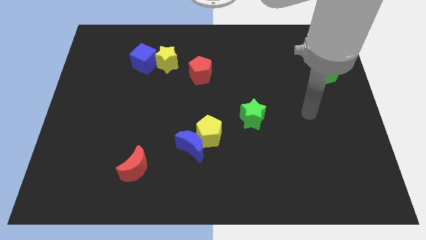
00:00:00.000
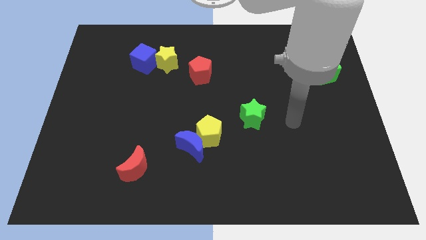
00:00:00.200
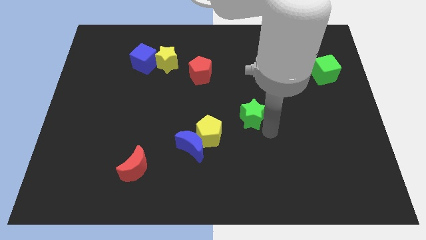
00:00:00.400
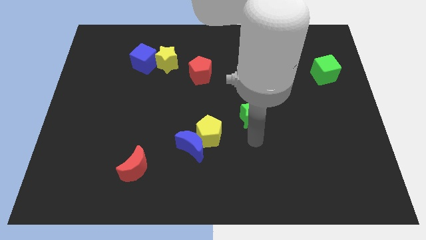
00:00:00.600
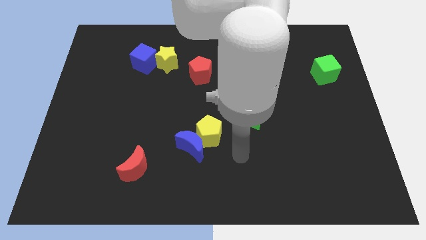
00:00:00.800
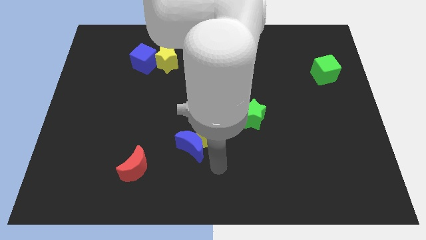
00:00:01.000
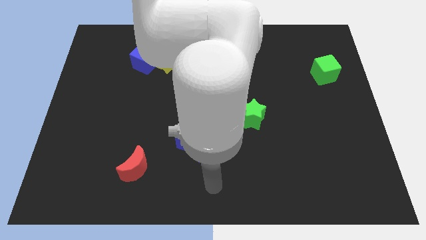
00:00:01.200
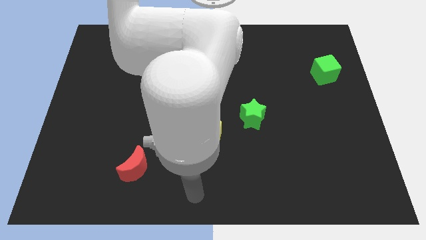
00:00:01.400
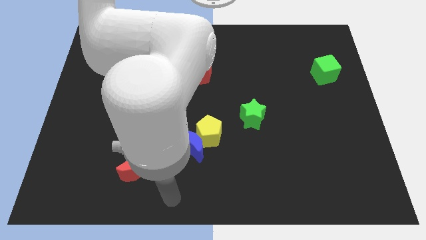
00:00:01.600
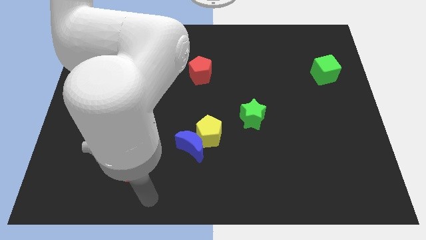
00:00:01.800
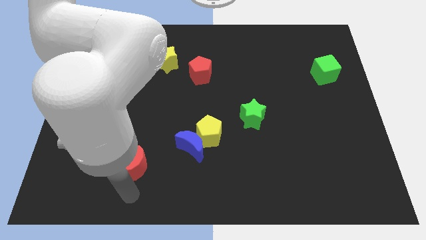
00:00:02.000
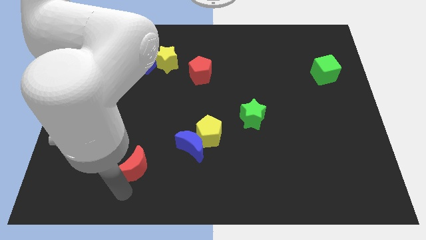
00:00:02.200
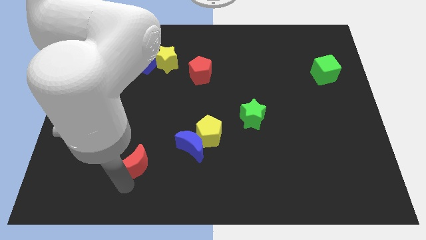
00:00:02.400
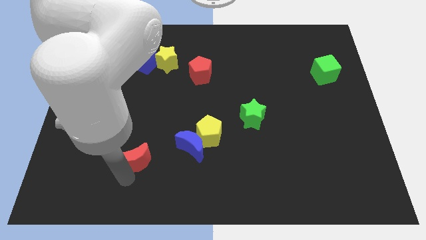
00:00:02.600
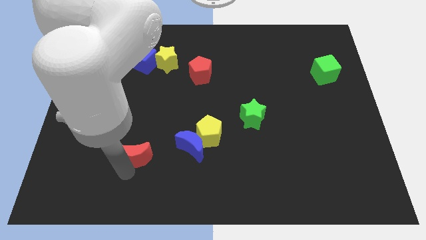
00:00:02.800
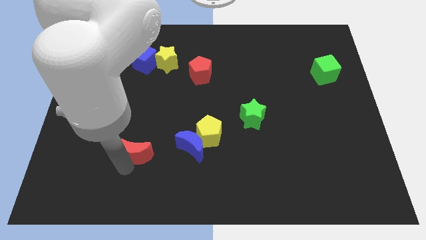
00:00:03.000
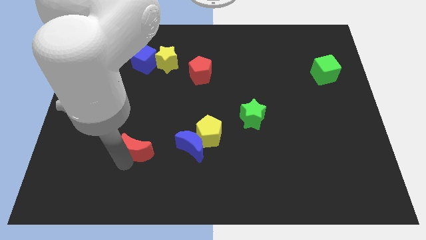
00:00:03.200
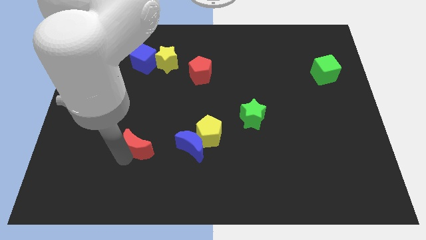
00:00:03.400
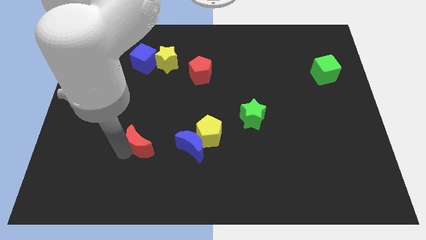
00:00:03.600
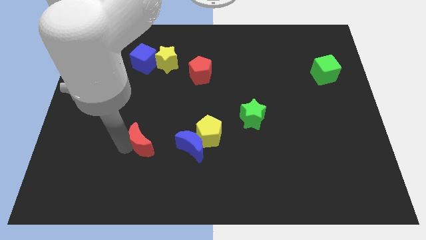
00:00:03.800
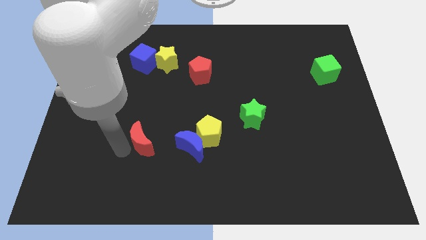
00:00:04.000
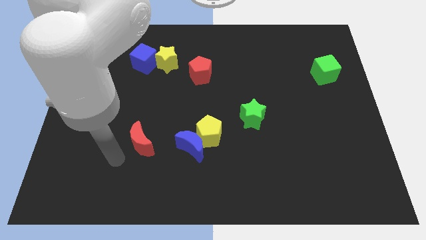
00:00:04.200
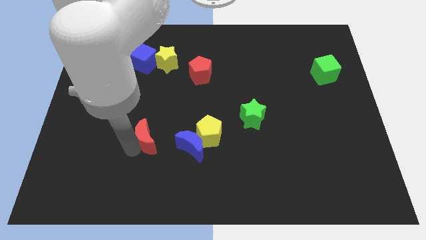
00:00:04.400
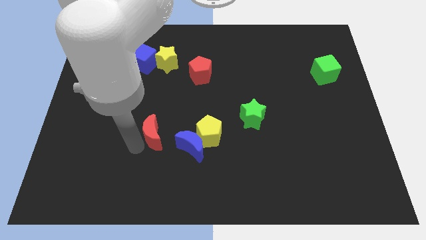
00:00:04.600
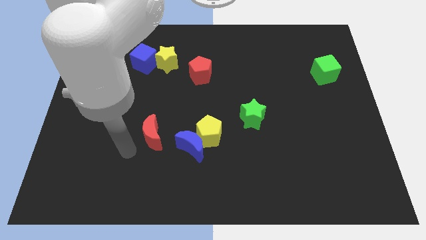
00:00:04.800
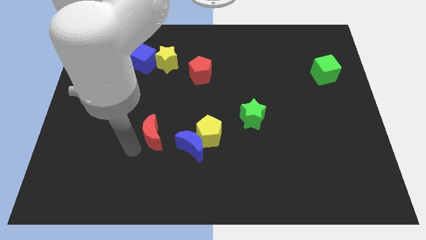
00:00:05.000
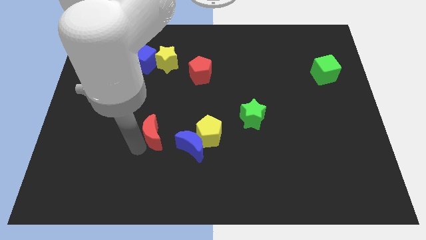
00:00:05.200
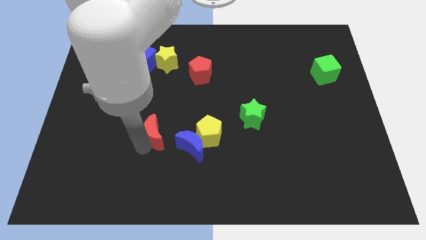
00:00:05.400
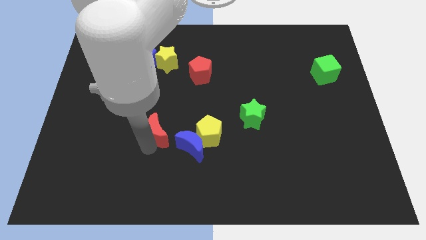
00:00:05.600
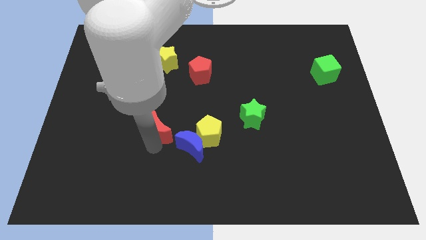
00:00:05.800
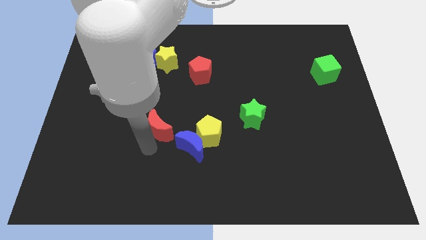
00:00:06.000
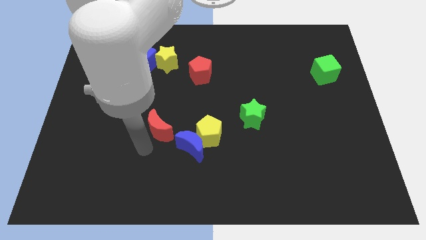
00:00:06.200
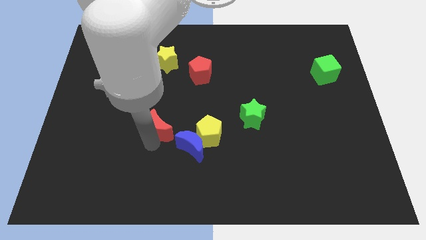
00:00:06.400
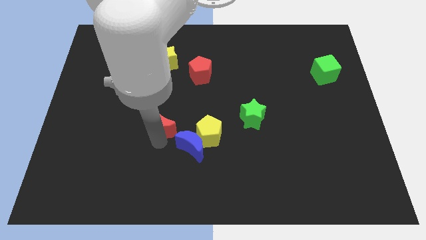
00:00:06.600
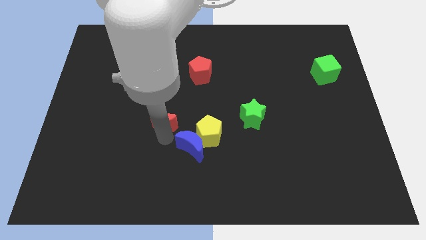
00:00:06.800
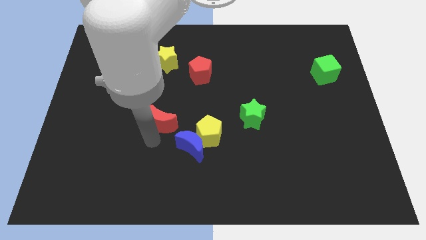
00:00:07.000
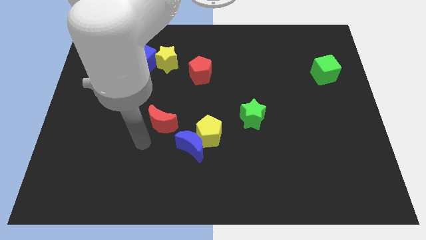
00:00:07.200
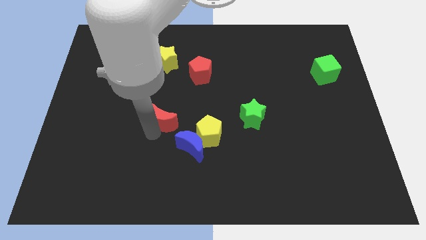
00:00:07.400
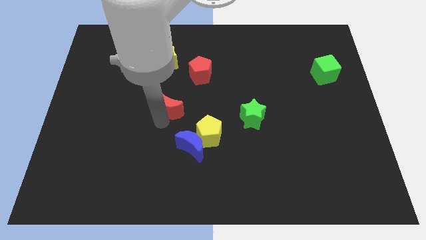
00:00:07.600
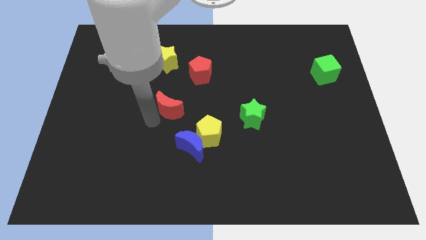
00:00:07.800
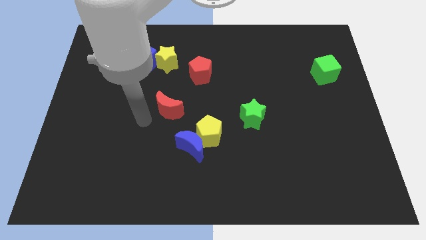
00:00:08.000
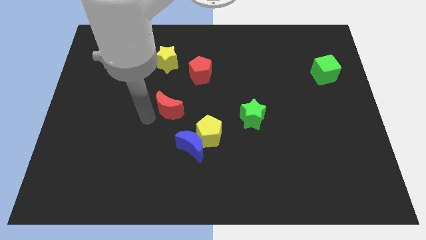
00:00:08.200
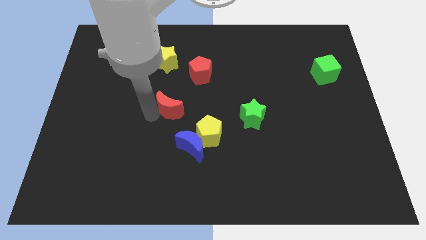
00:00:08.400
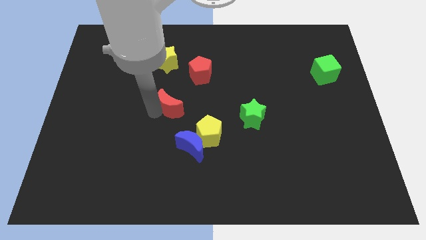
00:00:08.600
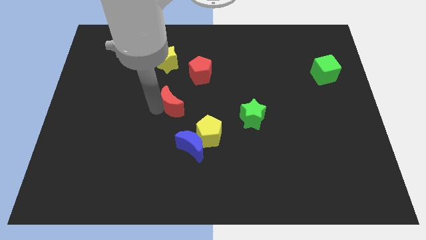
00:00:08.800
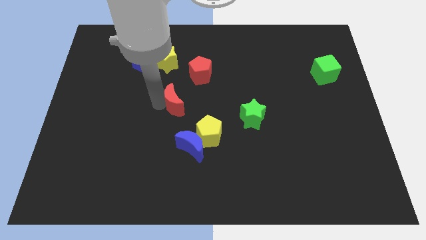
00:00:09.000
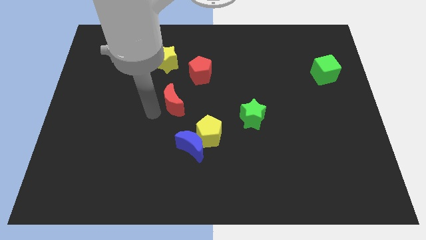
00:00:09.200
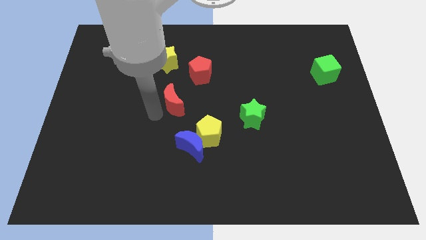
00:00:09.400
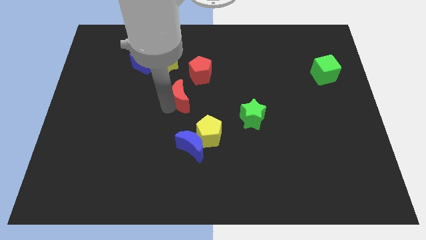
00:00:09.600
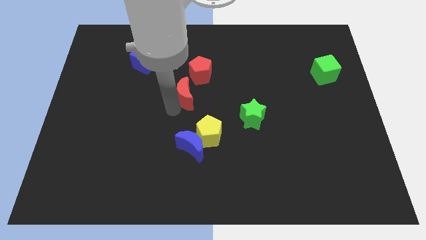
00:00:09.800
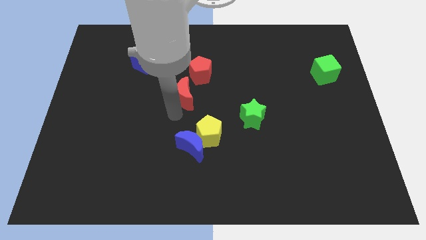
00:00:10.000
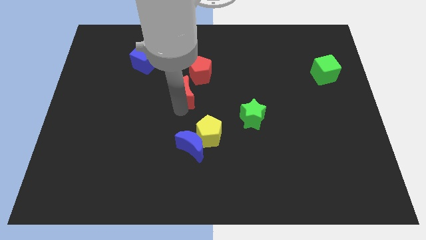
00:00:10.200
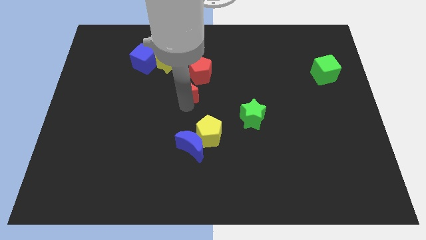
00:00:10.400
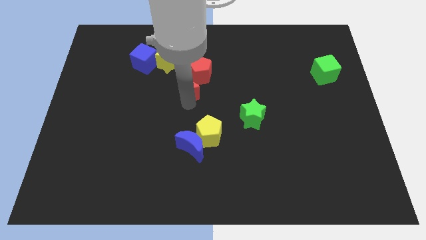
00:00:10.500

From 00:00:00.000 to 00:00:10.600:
put the red moon close to the red pentagon
